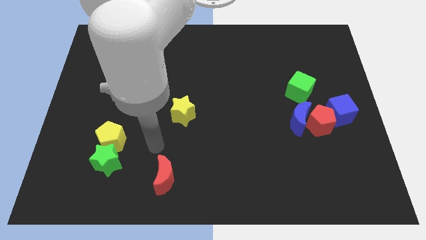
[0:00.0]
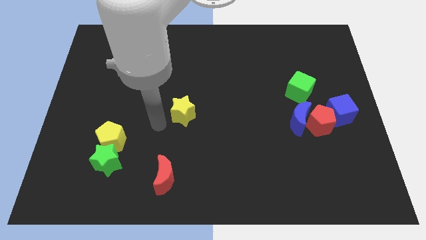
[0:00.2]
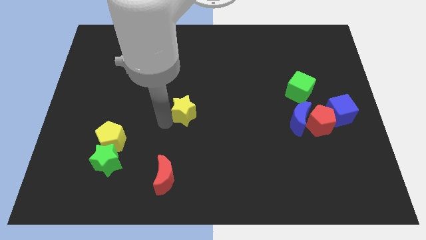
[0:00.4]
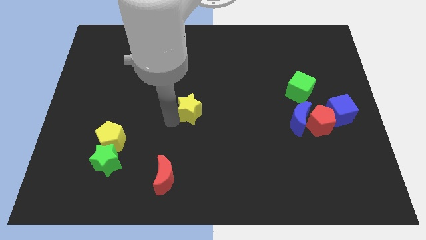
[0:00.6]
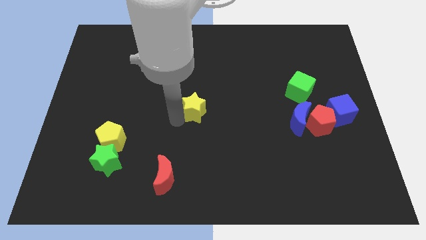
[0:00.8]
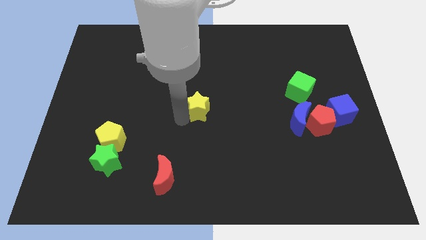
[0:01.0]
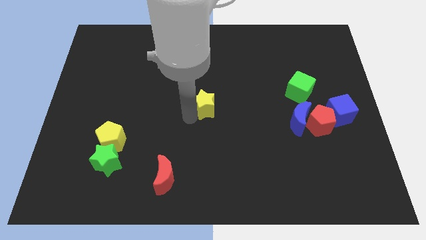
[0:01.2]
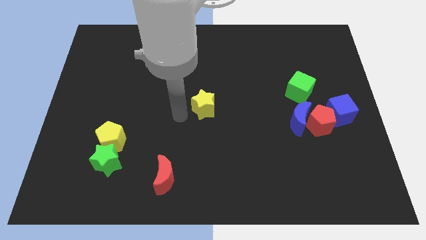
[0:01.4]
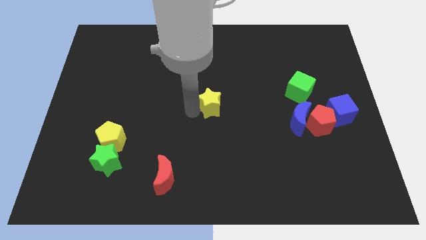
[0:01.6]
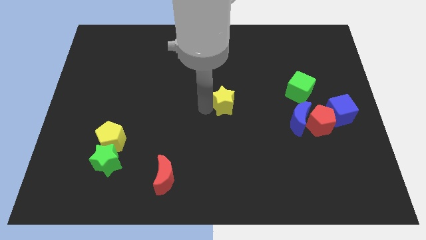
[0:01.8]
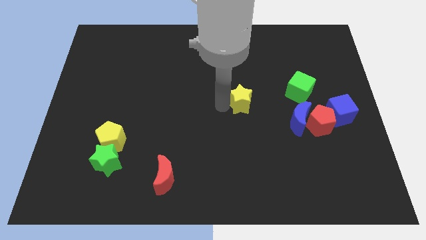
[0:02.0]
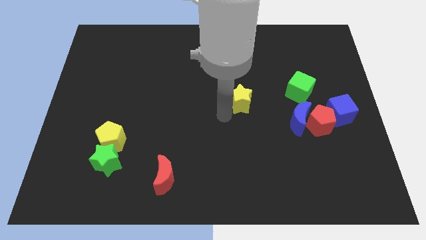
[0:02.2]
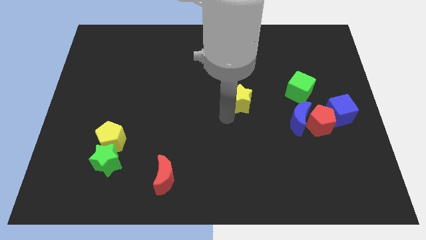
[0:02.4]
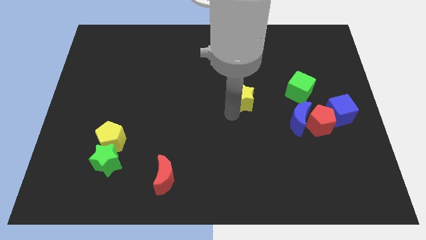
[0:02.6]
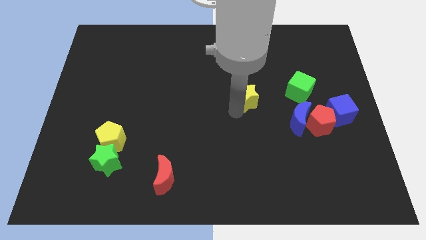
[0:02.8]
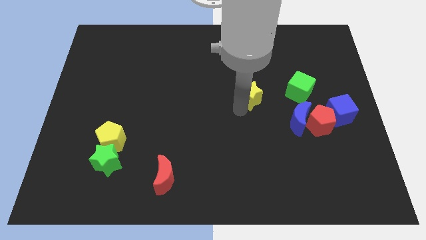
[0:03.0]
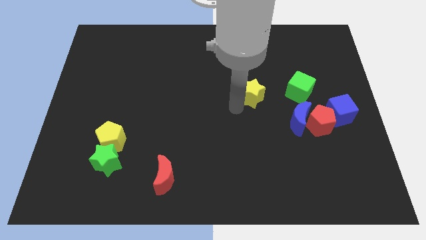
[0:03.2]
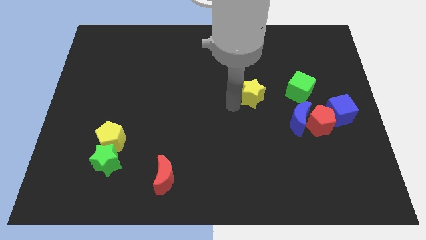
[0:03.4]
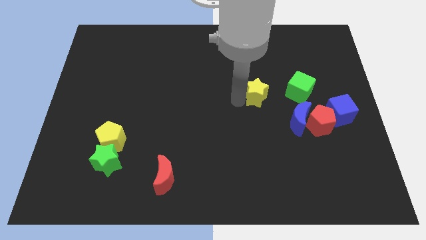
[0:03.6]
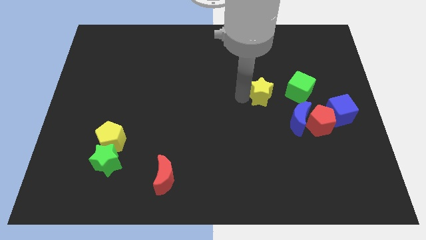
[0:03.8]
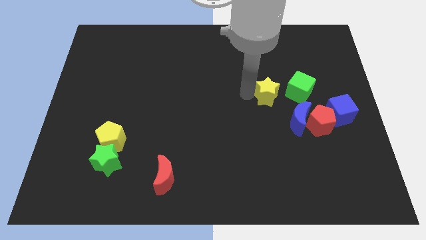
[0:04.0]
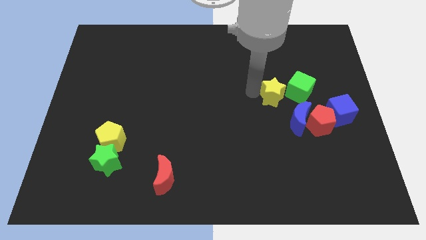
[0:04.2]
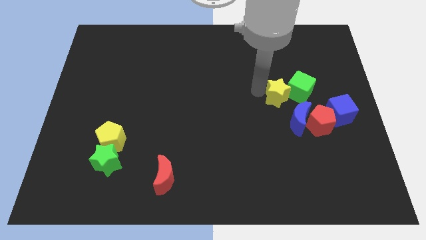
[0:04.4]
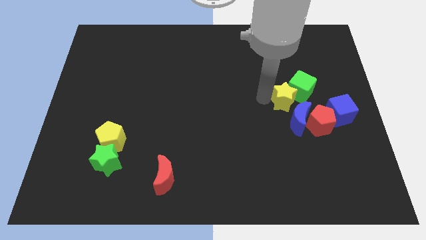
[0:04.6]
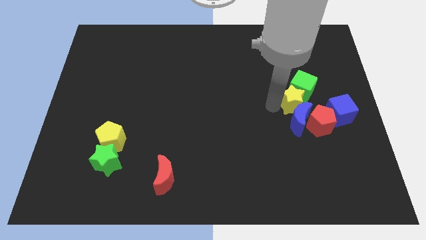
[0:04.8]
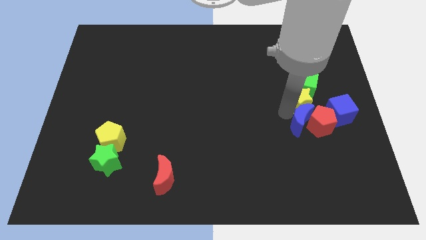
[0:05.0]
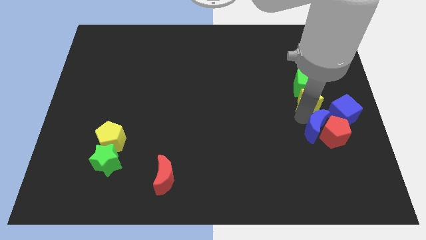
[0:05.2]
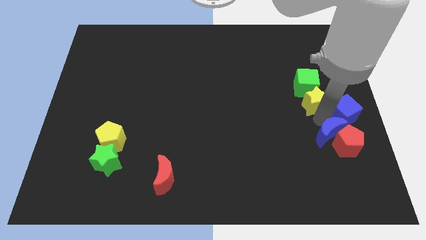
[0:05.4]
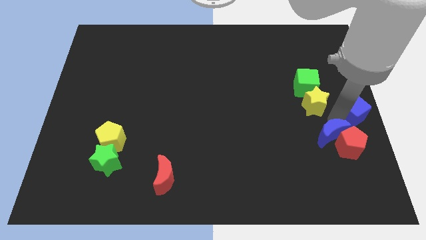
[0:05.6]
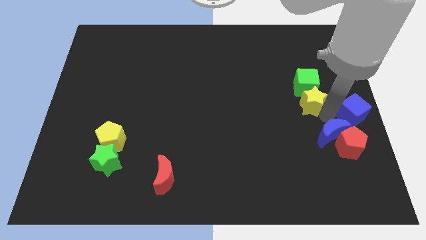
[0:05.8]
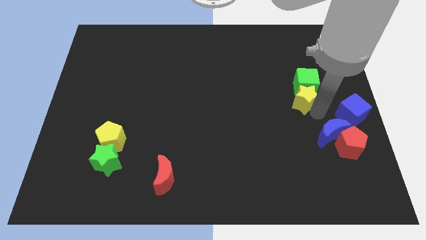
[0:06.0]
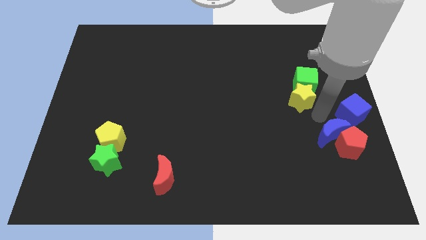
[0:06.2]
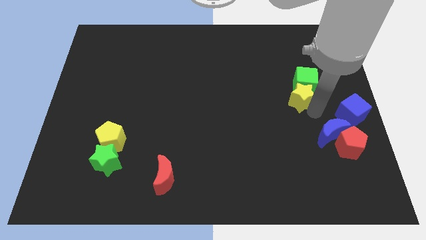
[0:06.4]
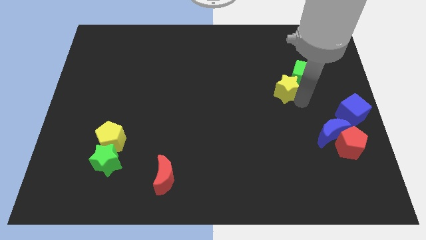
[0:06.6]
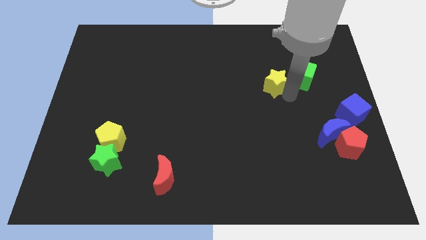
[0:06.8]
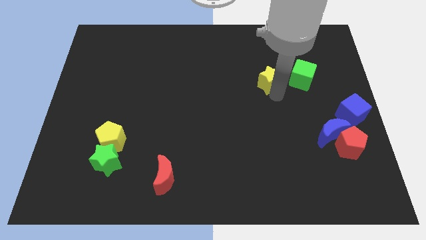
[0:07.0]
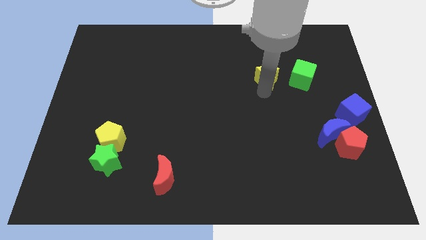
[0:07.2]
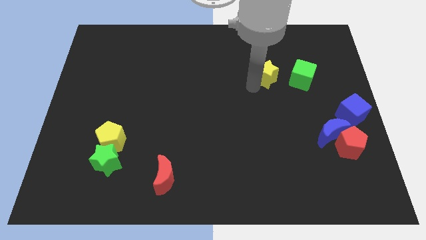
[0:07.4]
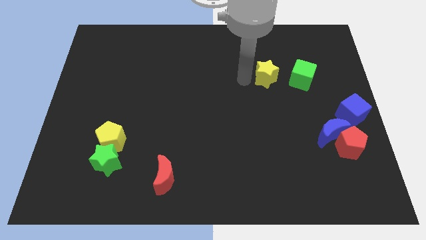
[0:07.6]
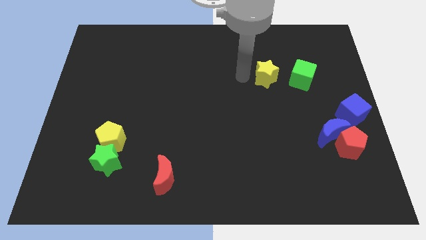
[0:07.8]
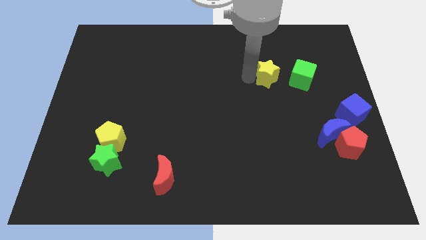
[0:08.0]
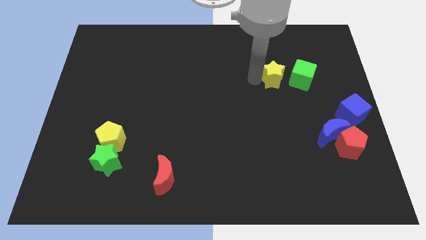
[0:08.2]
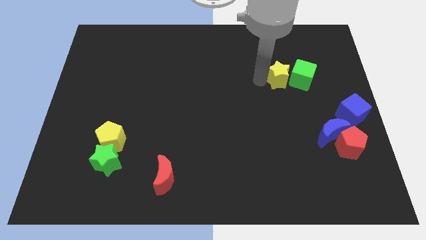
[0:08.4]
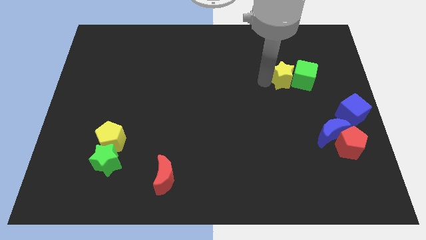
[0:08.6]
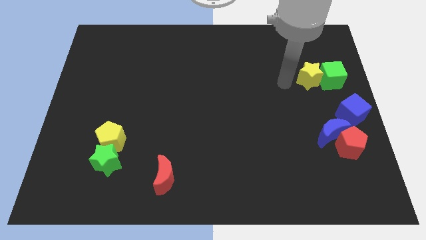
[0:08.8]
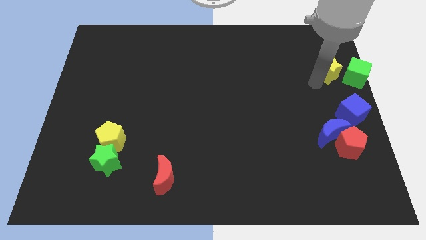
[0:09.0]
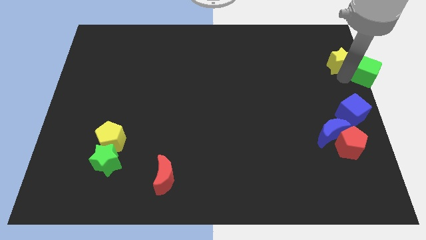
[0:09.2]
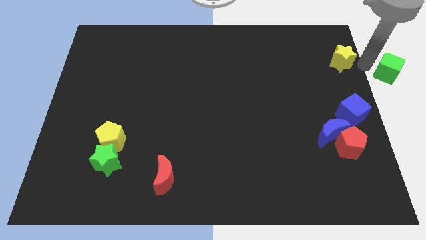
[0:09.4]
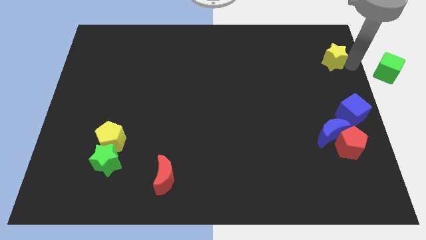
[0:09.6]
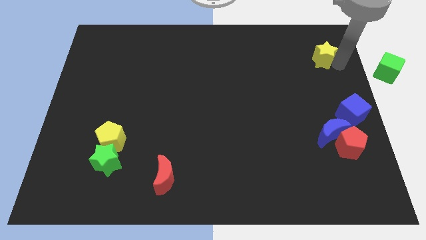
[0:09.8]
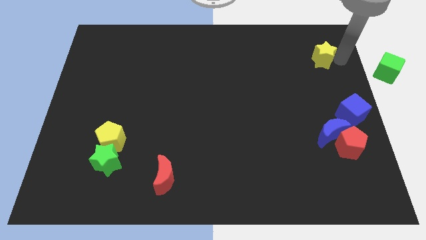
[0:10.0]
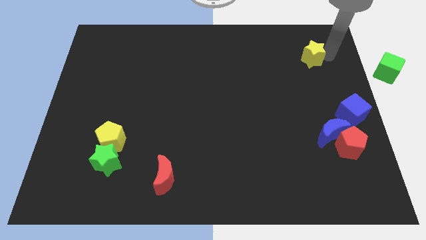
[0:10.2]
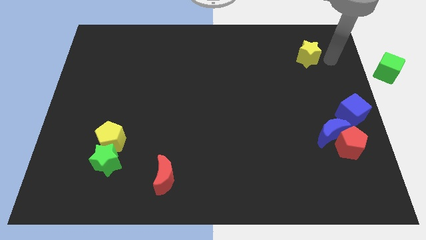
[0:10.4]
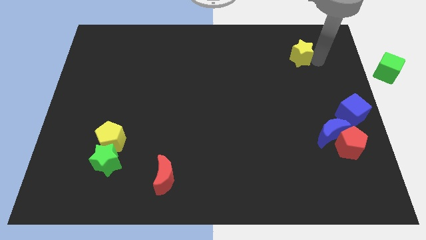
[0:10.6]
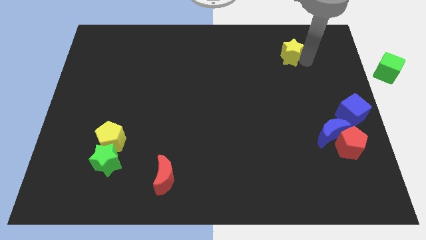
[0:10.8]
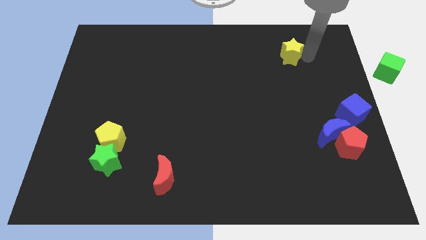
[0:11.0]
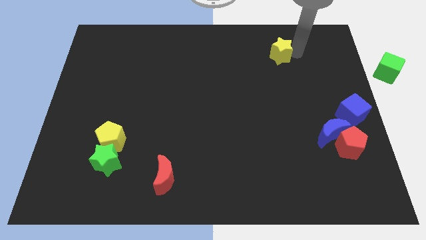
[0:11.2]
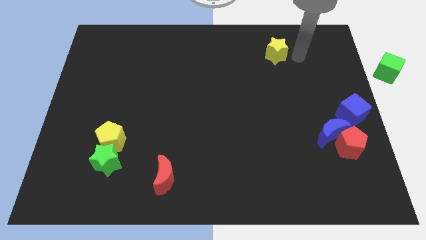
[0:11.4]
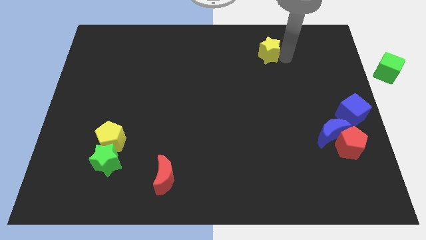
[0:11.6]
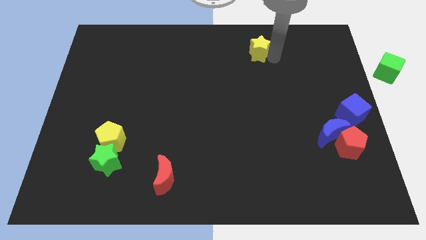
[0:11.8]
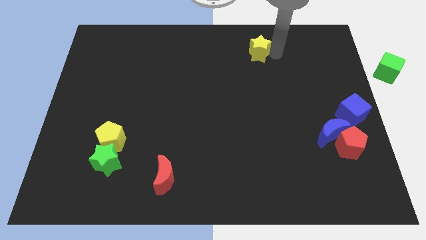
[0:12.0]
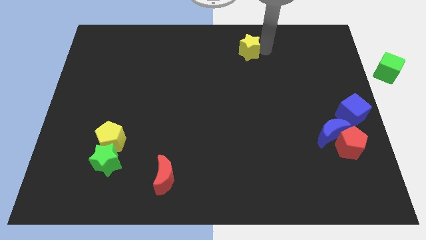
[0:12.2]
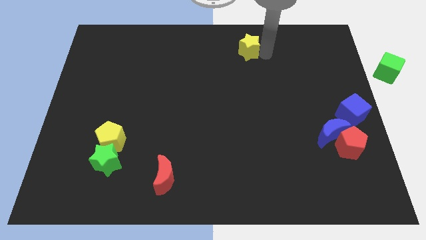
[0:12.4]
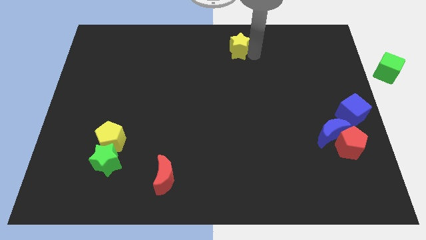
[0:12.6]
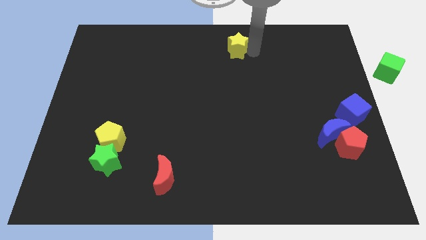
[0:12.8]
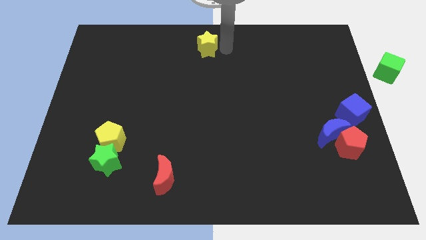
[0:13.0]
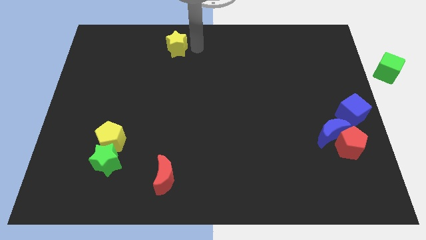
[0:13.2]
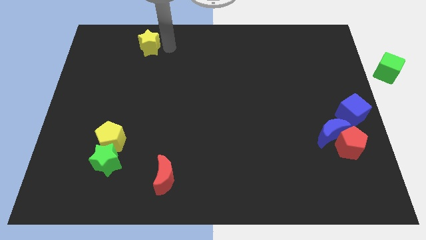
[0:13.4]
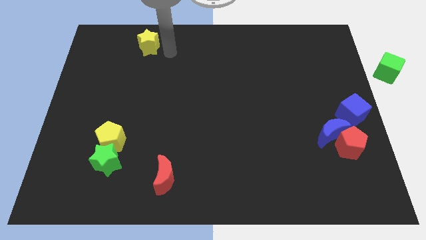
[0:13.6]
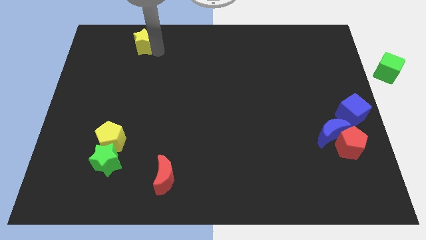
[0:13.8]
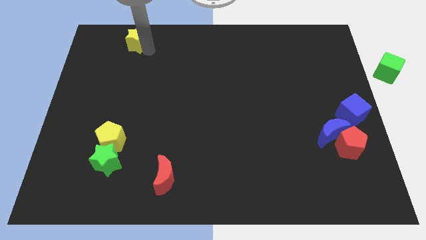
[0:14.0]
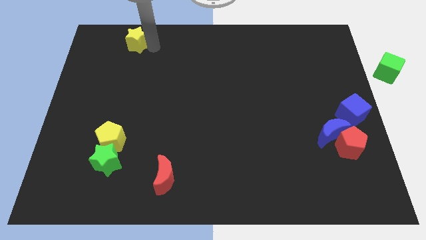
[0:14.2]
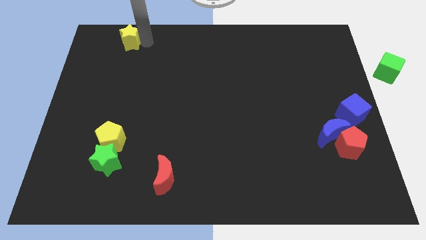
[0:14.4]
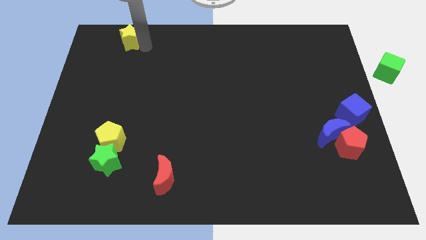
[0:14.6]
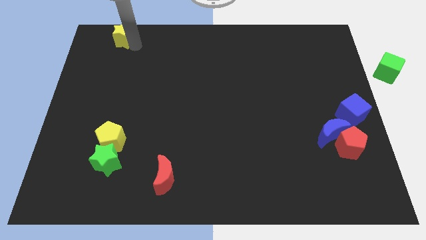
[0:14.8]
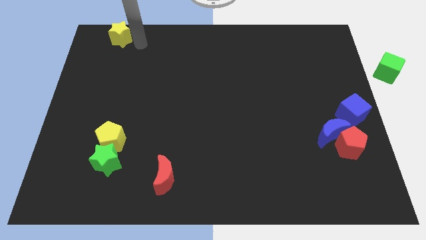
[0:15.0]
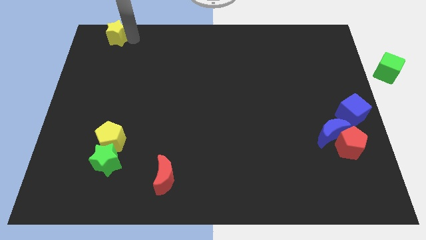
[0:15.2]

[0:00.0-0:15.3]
push the yellow star to the top left corner
